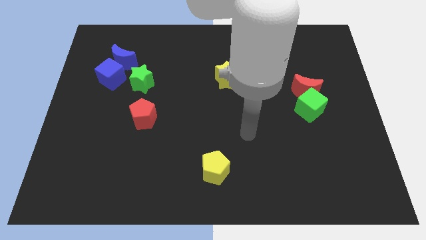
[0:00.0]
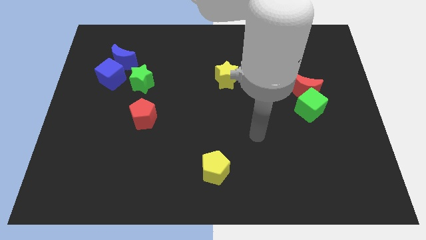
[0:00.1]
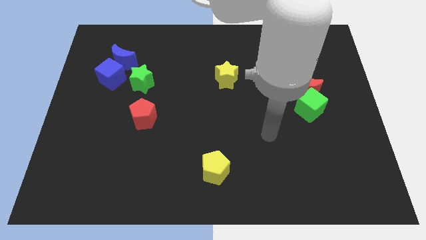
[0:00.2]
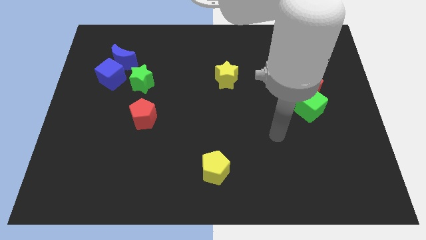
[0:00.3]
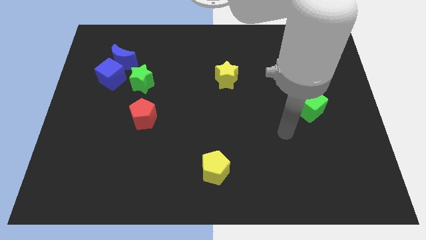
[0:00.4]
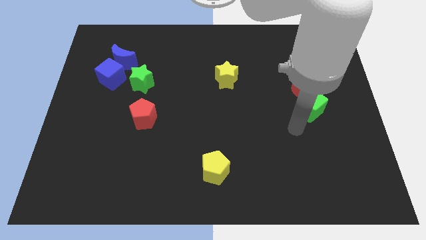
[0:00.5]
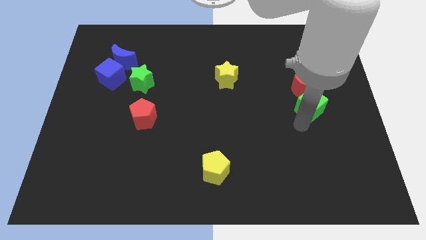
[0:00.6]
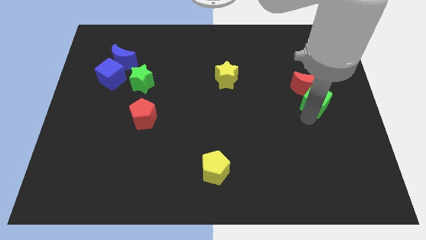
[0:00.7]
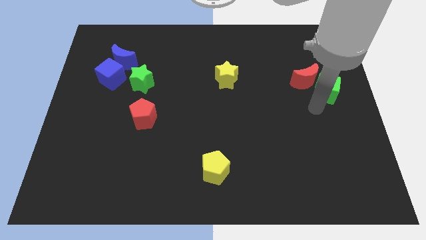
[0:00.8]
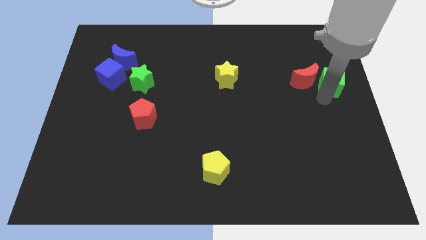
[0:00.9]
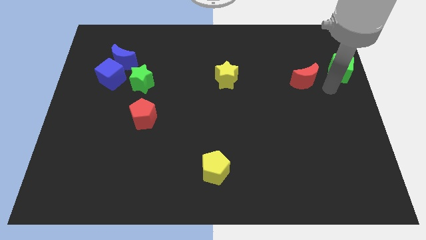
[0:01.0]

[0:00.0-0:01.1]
pull the red moon apart from the green cube

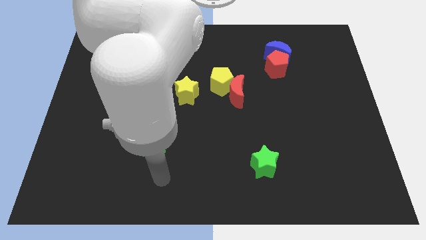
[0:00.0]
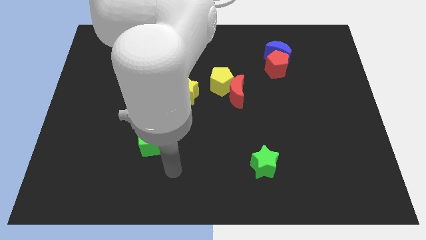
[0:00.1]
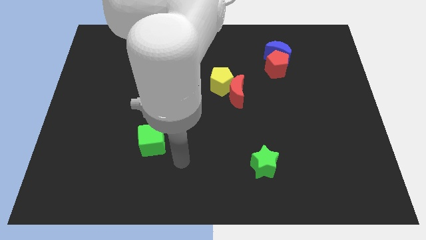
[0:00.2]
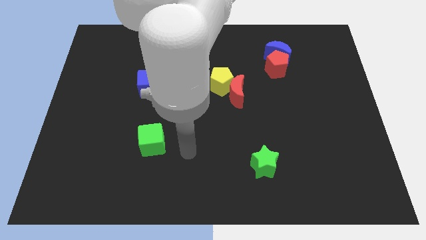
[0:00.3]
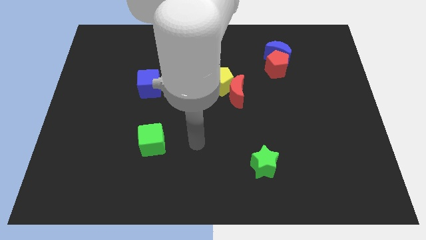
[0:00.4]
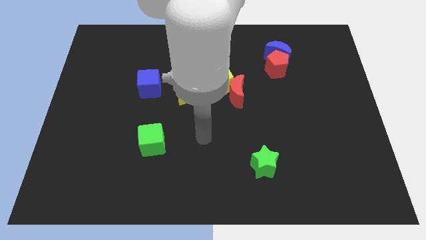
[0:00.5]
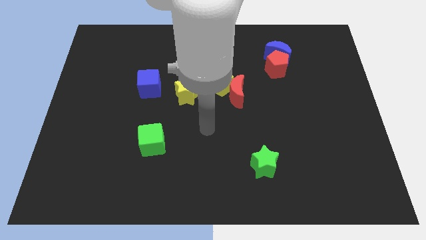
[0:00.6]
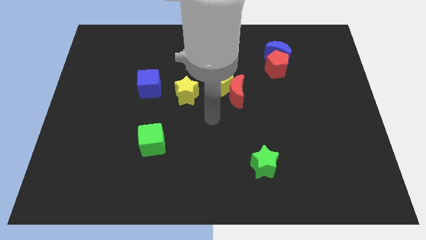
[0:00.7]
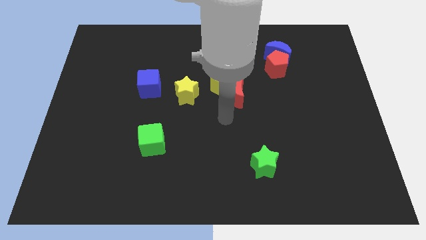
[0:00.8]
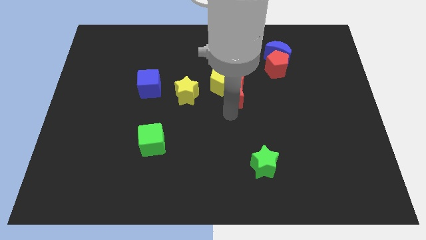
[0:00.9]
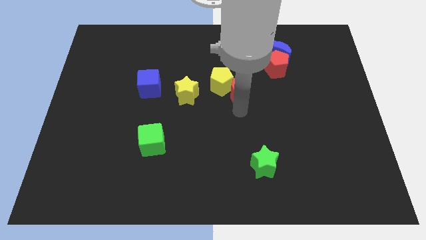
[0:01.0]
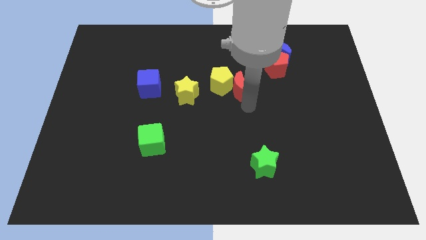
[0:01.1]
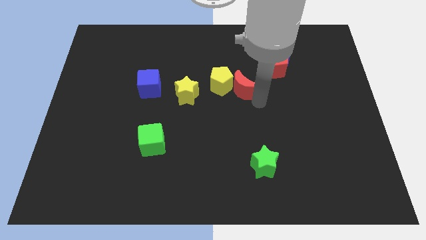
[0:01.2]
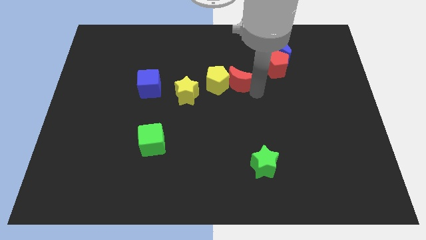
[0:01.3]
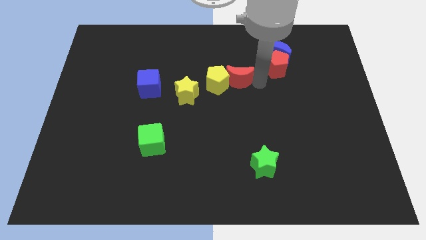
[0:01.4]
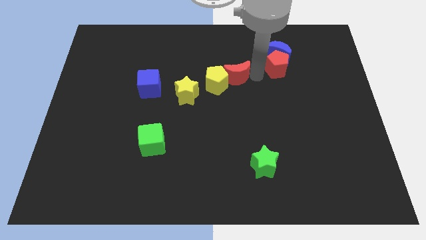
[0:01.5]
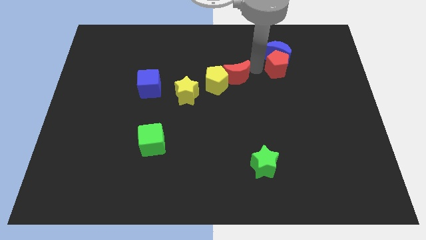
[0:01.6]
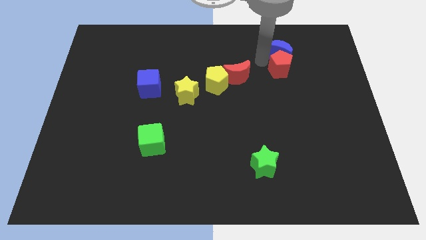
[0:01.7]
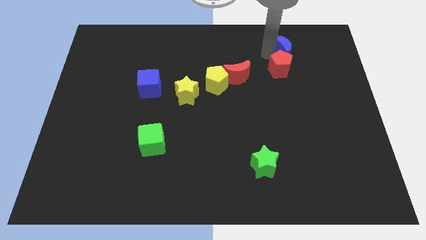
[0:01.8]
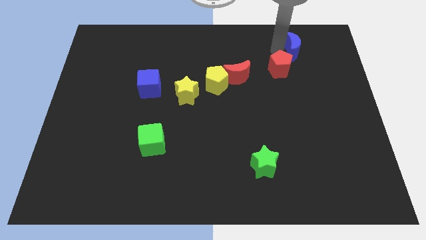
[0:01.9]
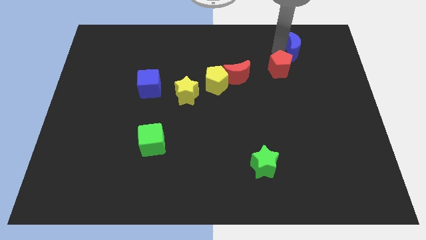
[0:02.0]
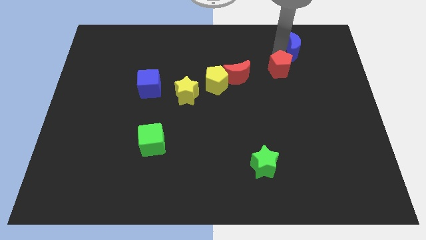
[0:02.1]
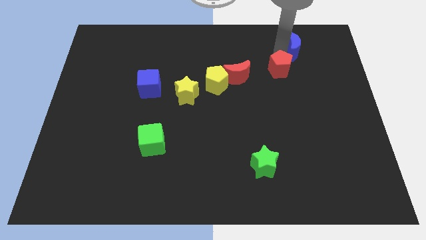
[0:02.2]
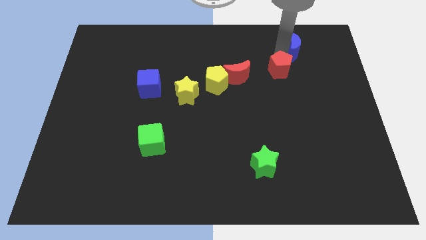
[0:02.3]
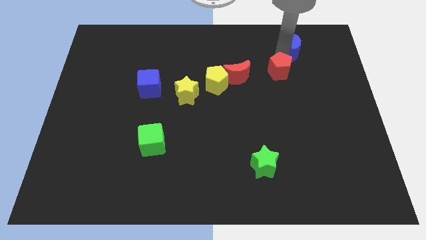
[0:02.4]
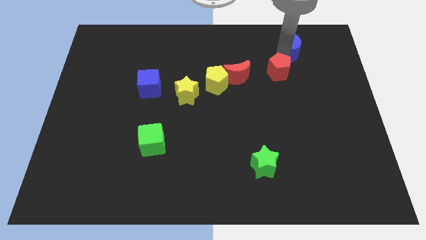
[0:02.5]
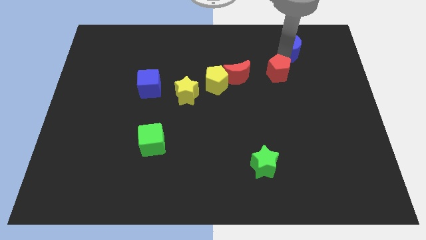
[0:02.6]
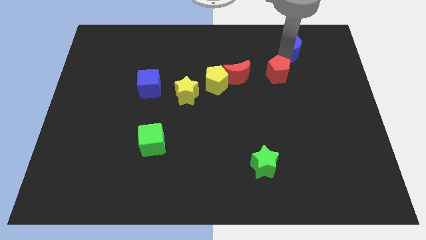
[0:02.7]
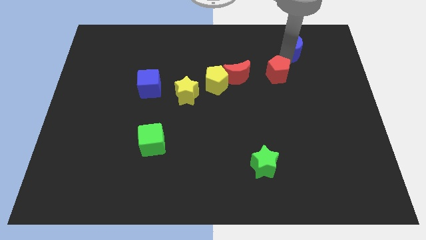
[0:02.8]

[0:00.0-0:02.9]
move the red pentagon away from the blue moon

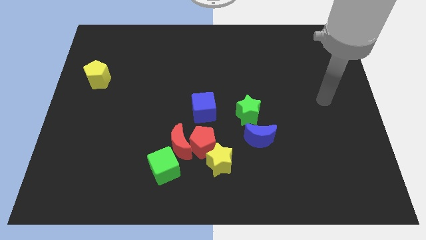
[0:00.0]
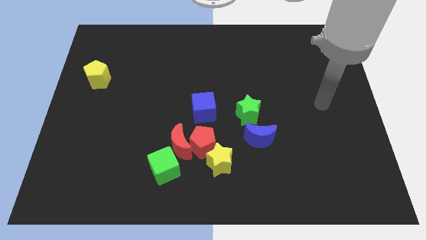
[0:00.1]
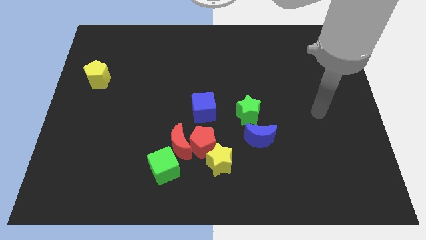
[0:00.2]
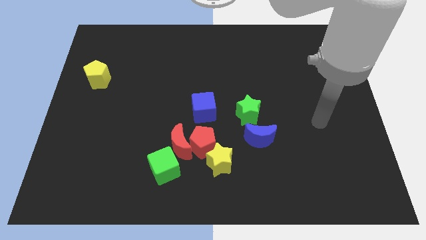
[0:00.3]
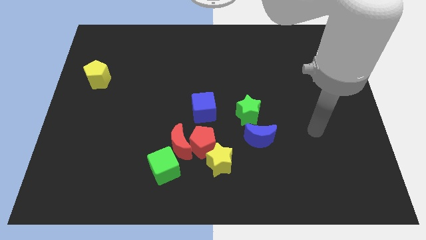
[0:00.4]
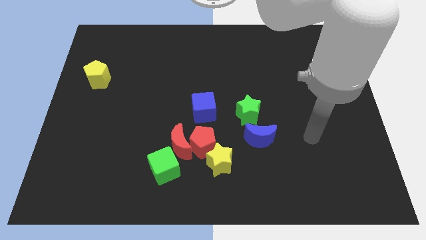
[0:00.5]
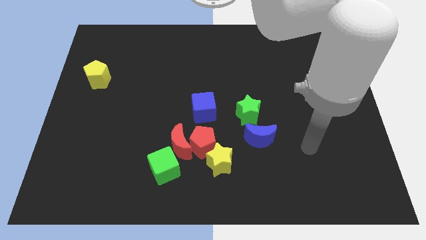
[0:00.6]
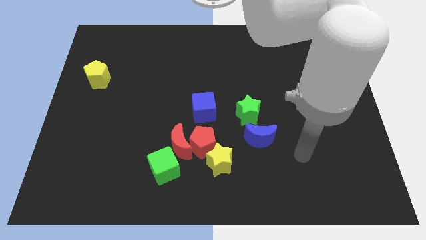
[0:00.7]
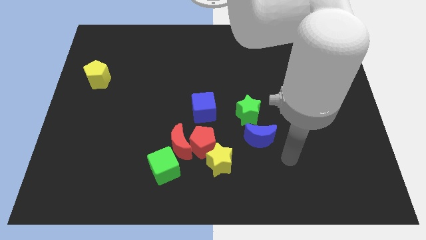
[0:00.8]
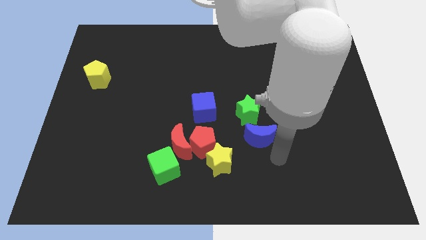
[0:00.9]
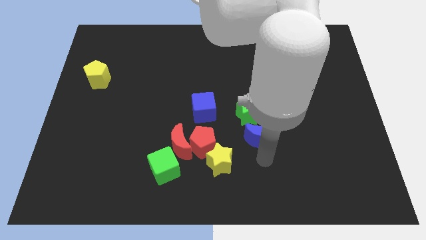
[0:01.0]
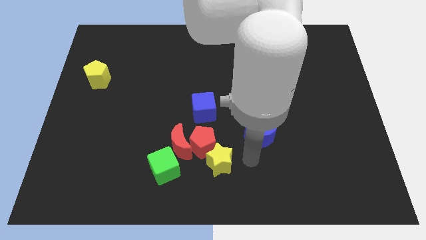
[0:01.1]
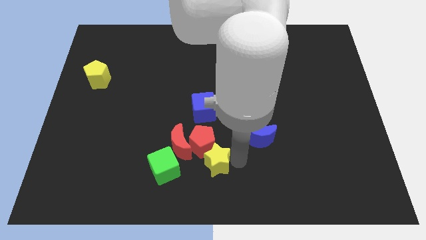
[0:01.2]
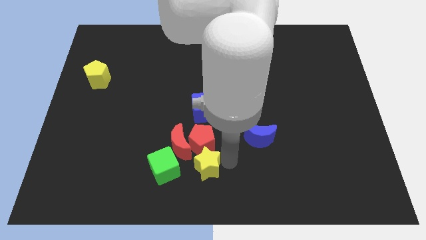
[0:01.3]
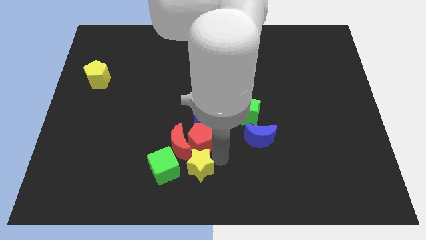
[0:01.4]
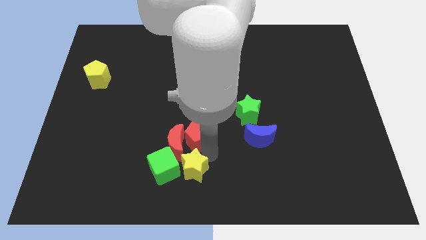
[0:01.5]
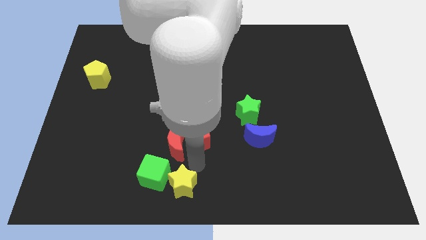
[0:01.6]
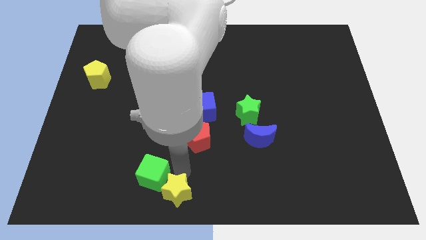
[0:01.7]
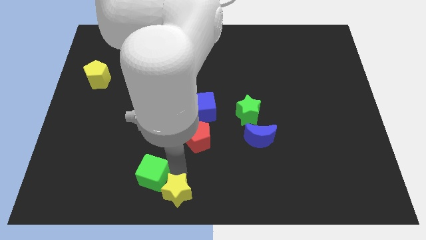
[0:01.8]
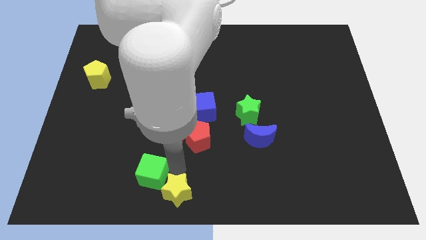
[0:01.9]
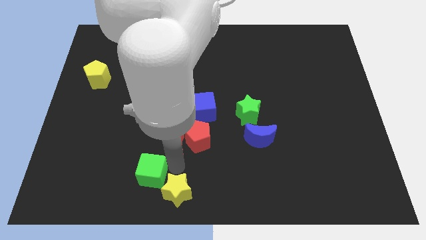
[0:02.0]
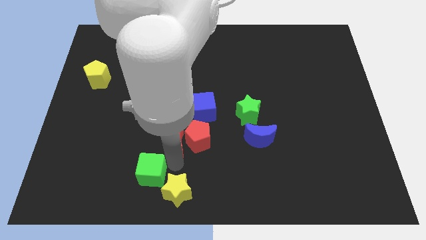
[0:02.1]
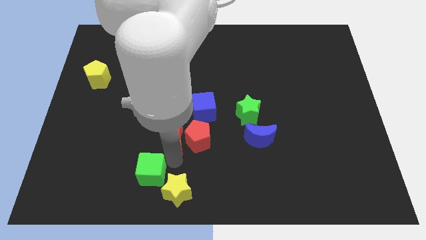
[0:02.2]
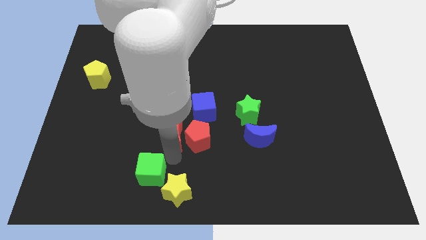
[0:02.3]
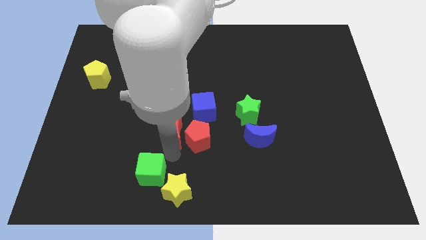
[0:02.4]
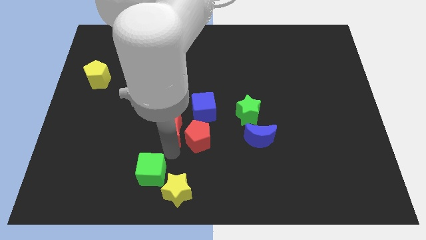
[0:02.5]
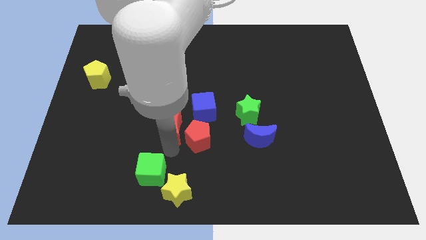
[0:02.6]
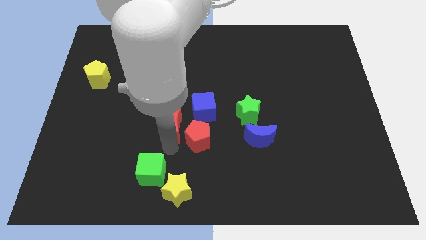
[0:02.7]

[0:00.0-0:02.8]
move the red moon away from the group

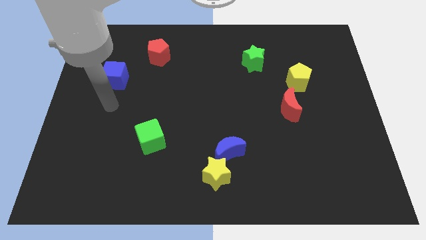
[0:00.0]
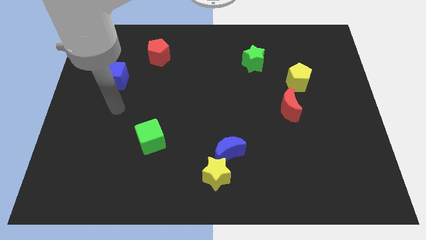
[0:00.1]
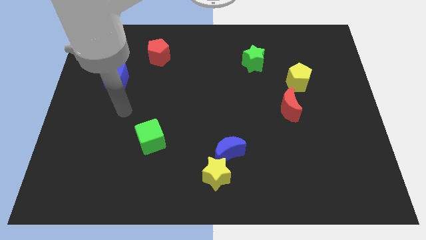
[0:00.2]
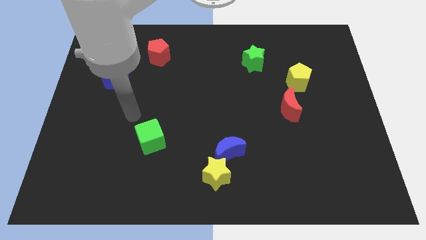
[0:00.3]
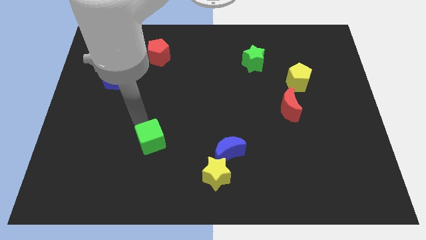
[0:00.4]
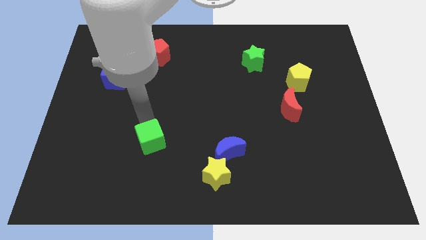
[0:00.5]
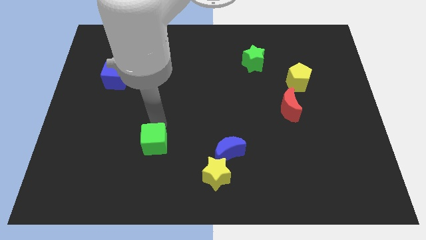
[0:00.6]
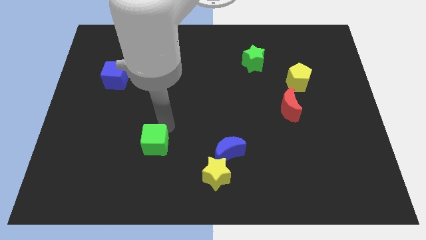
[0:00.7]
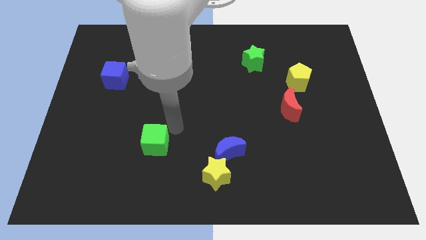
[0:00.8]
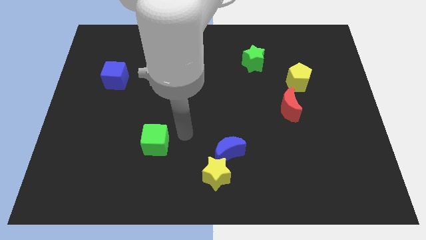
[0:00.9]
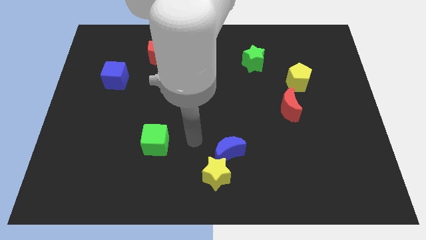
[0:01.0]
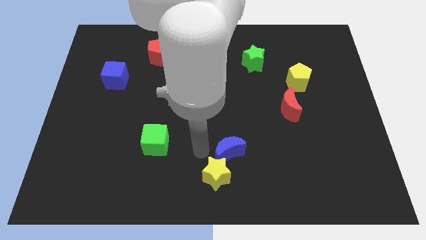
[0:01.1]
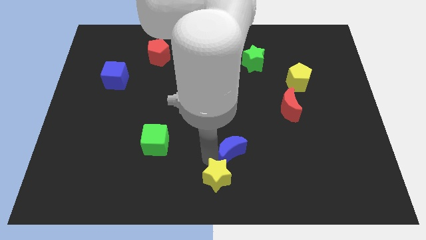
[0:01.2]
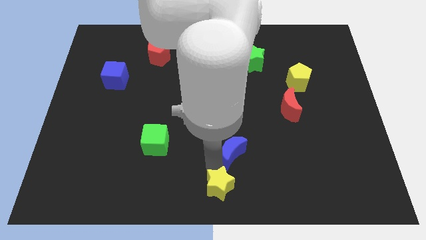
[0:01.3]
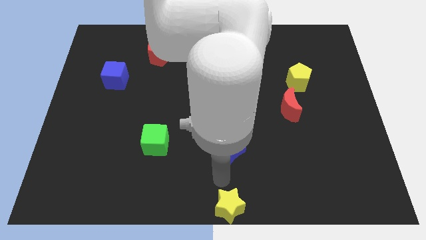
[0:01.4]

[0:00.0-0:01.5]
separate the blue moon from the yellow star

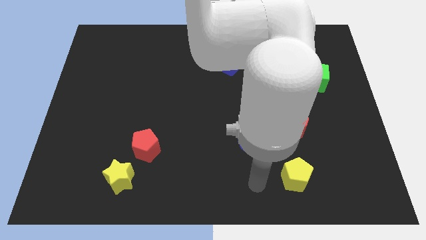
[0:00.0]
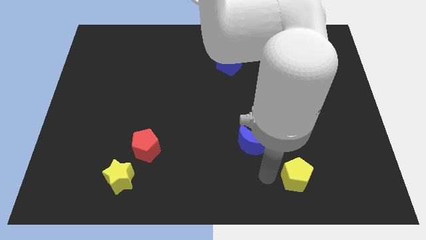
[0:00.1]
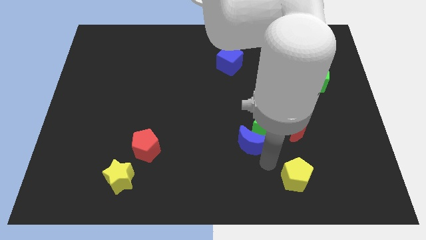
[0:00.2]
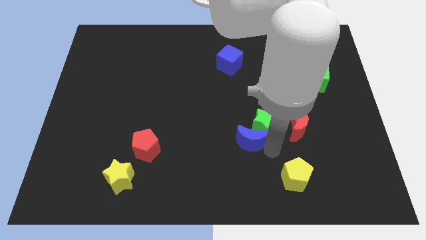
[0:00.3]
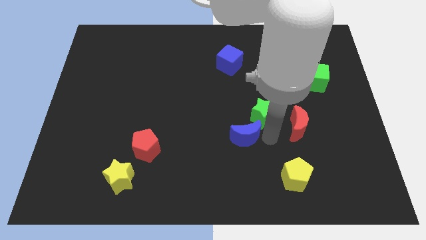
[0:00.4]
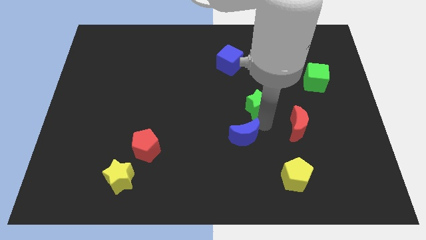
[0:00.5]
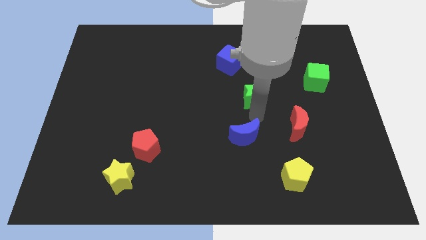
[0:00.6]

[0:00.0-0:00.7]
move the blue moon away from the green star

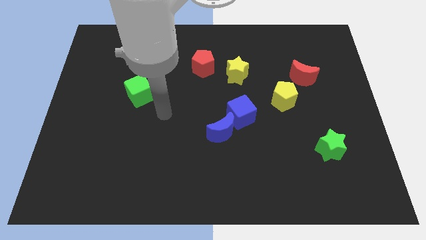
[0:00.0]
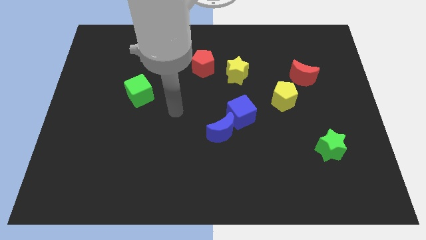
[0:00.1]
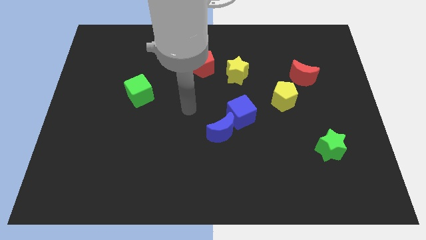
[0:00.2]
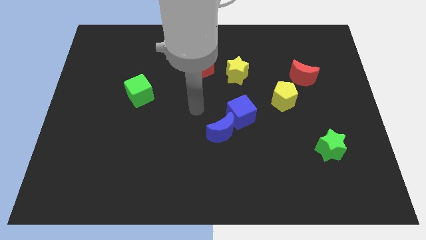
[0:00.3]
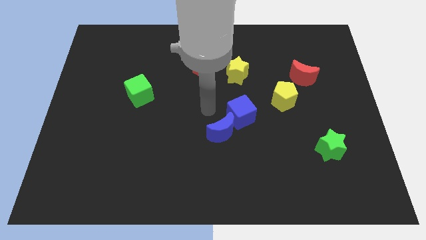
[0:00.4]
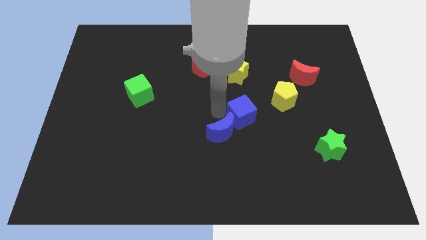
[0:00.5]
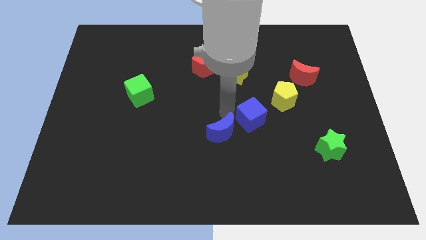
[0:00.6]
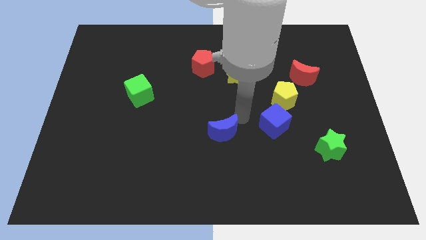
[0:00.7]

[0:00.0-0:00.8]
move the blue moon away from the blue cube
